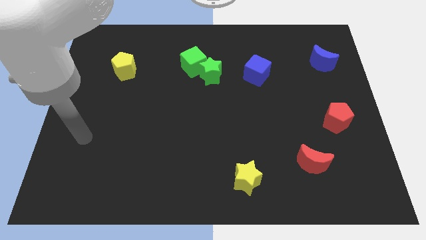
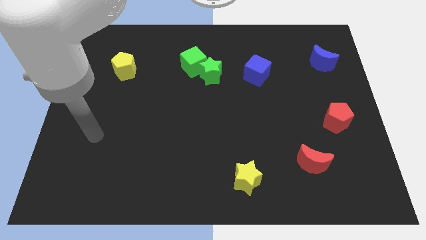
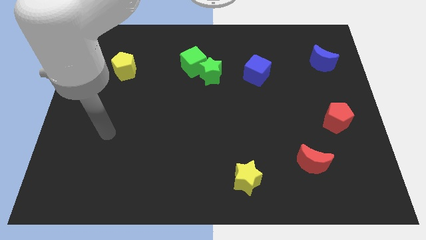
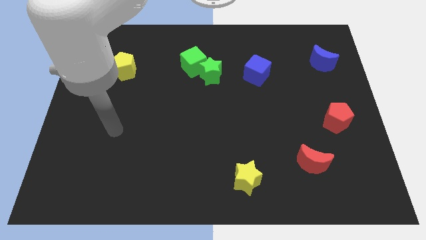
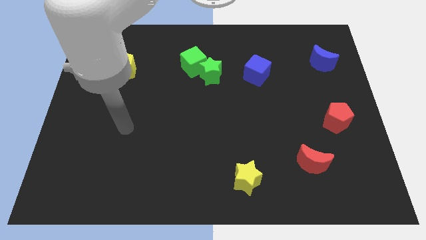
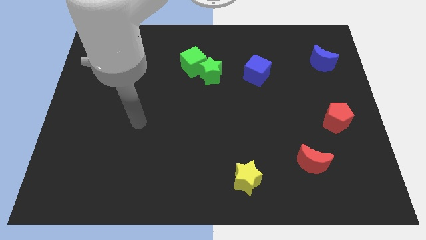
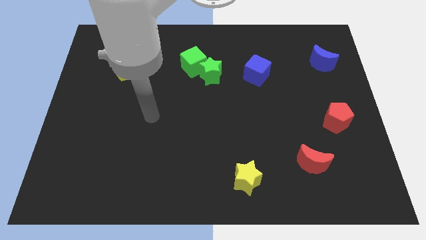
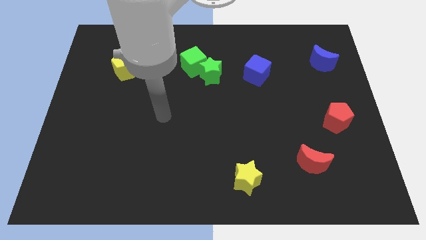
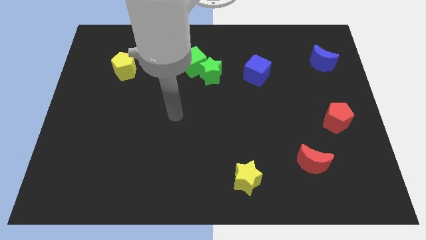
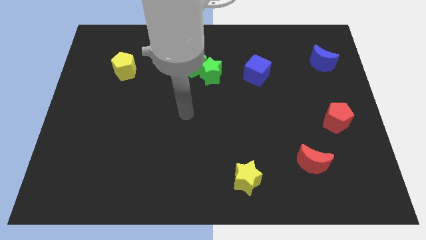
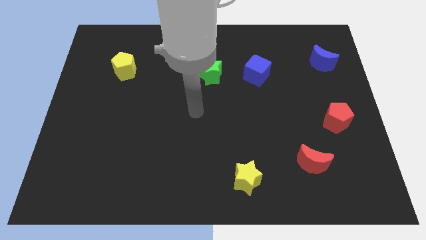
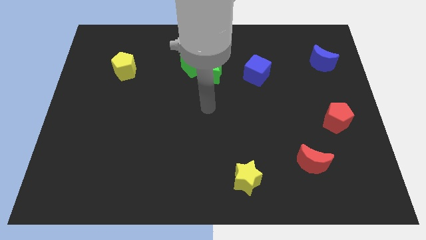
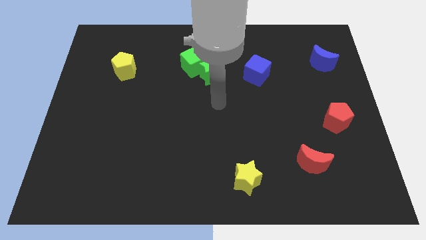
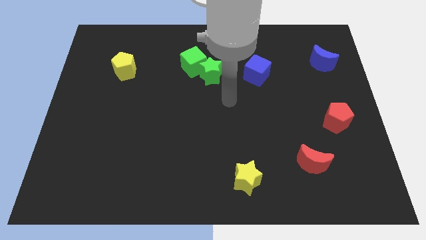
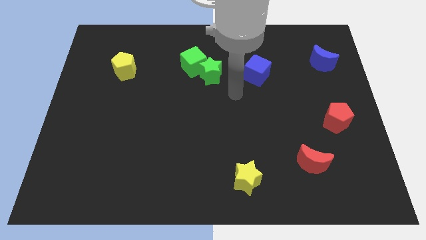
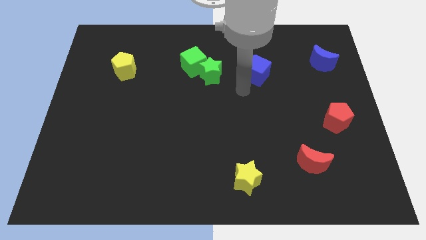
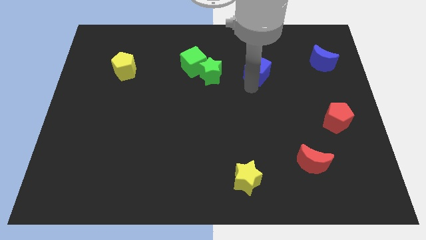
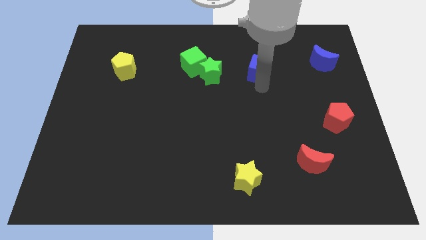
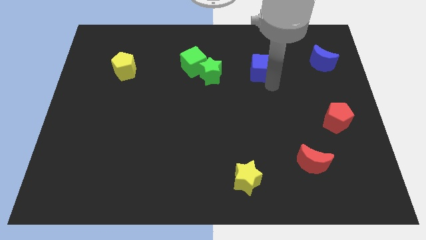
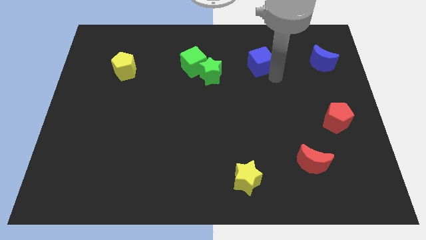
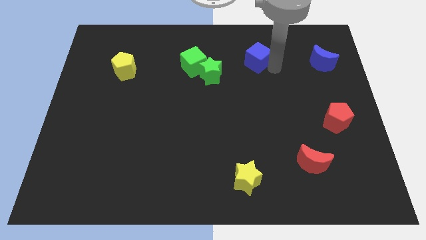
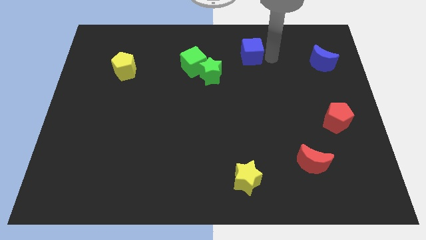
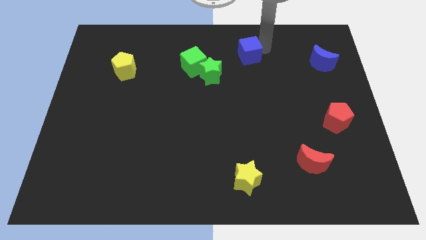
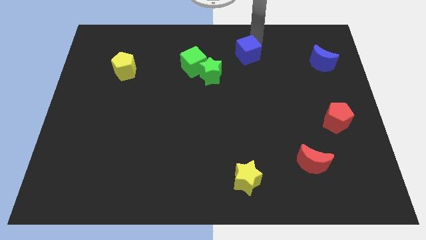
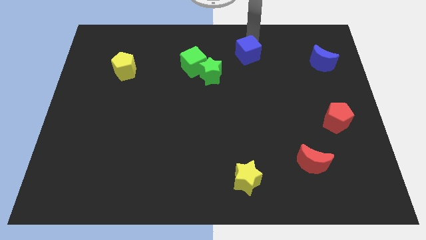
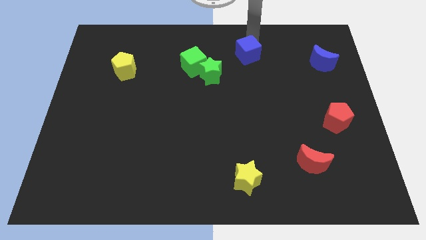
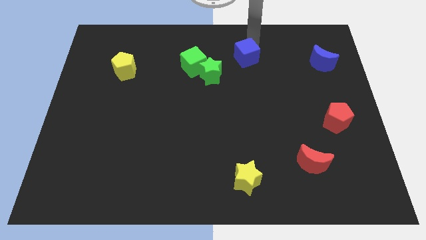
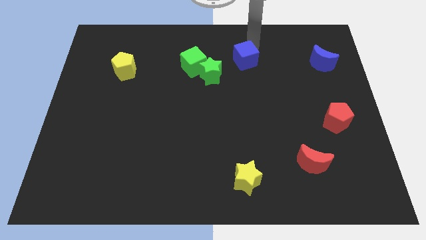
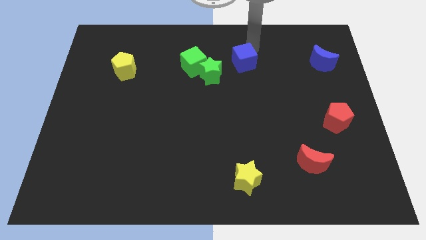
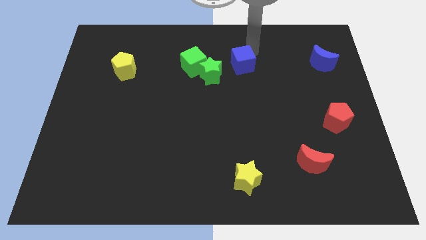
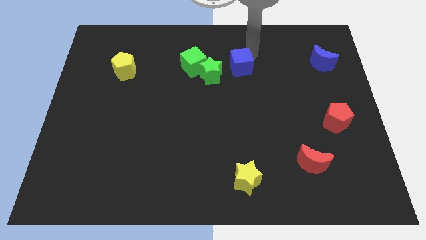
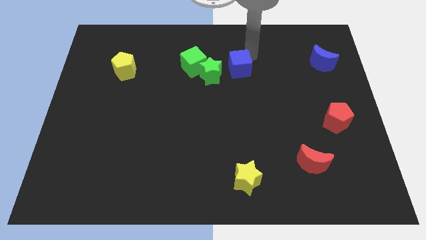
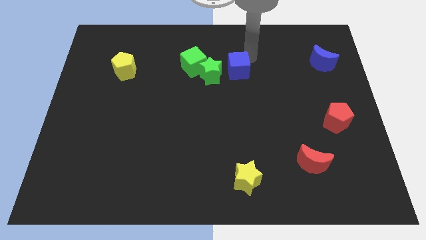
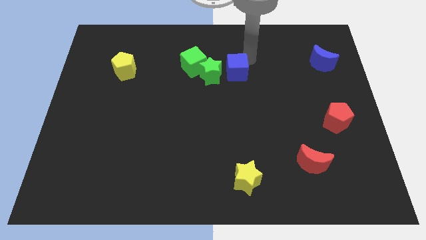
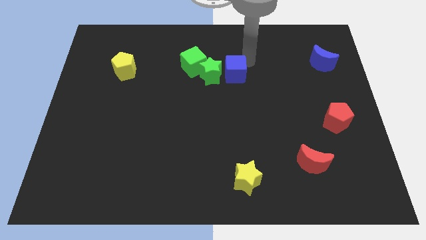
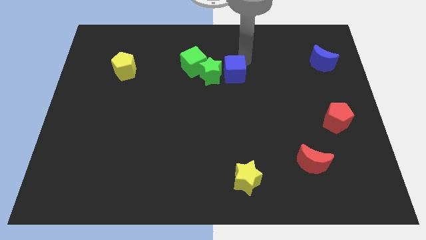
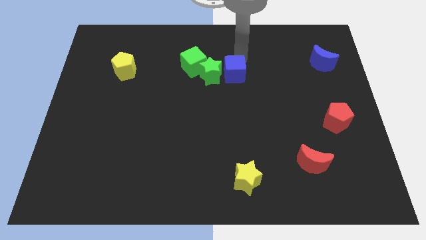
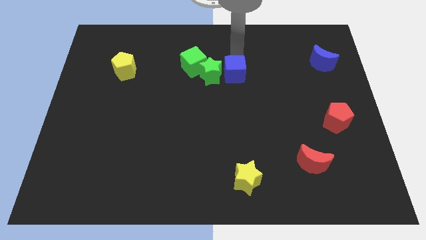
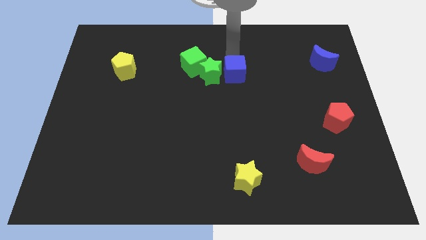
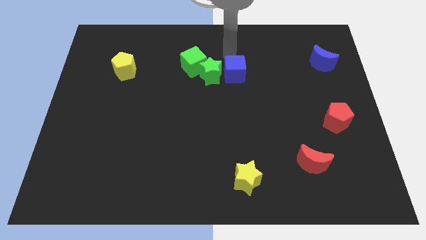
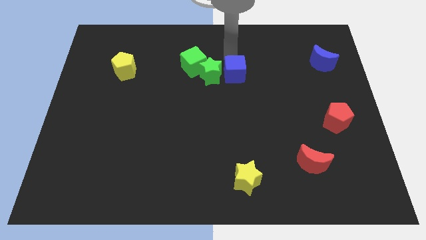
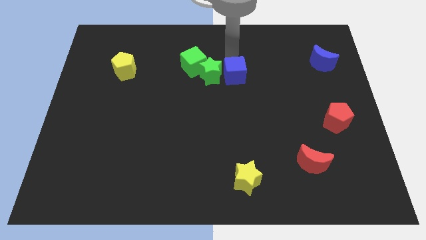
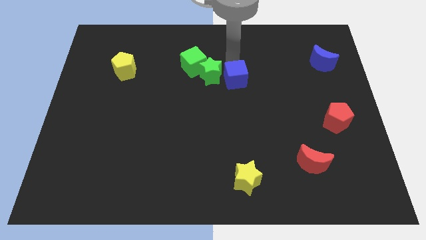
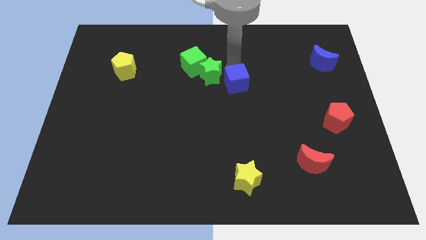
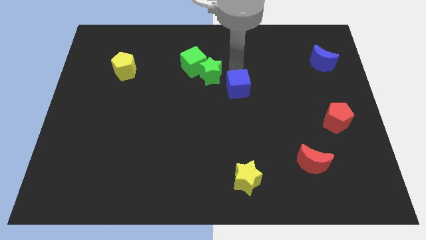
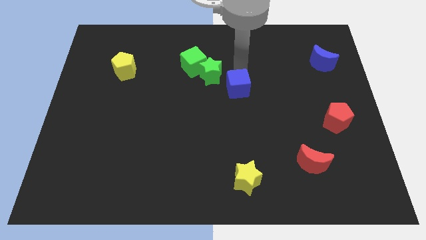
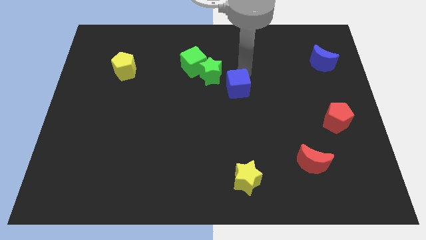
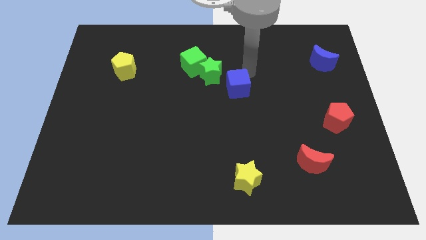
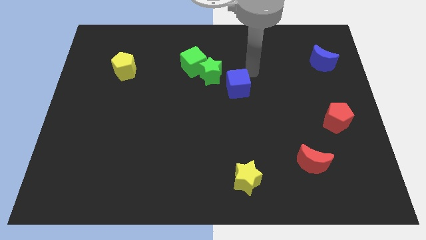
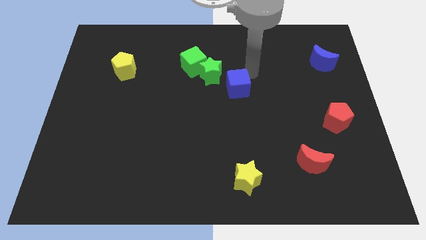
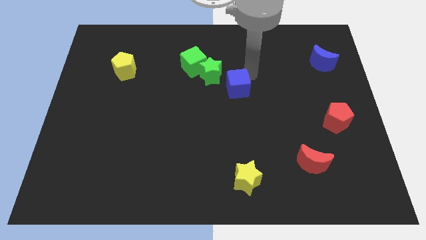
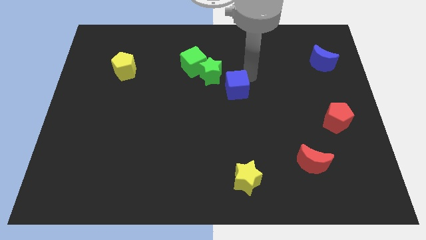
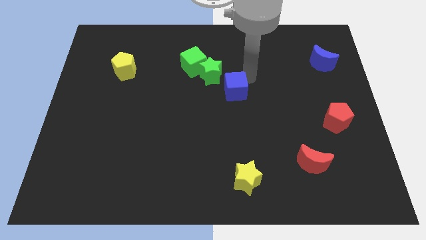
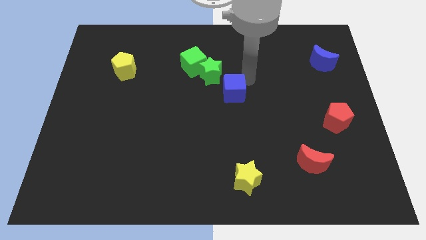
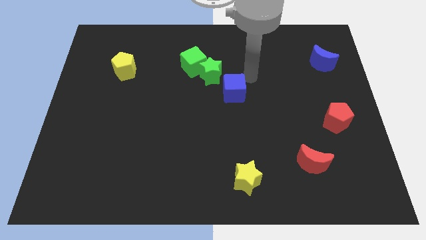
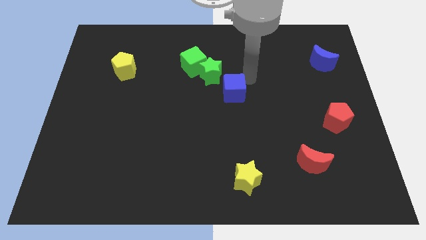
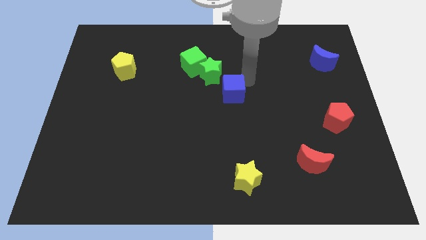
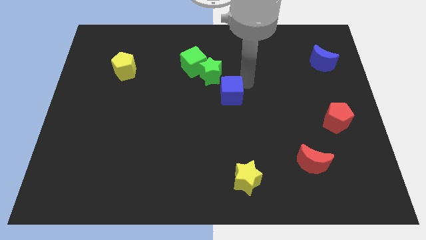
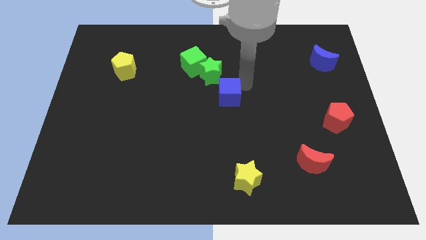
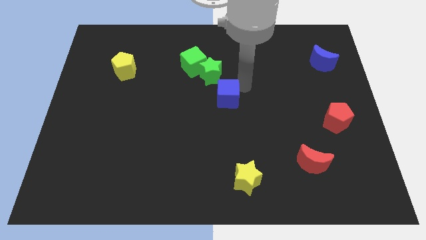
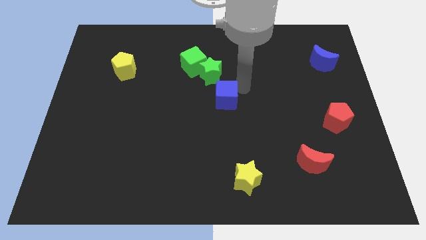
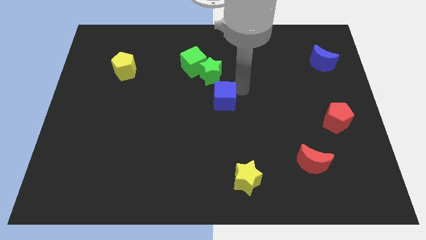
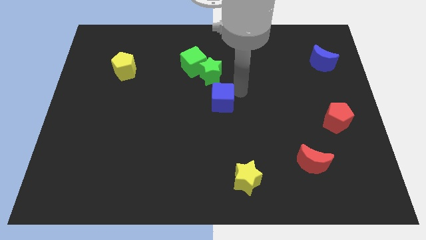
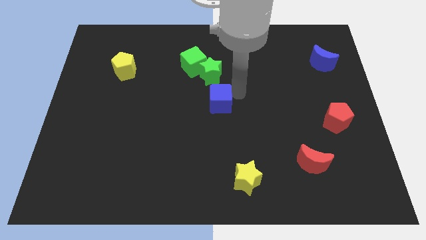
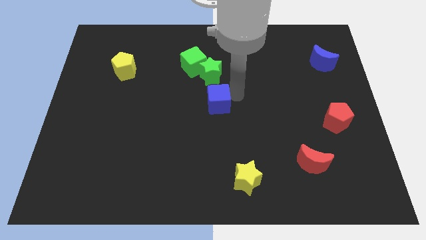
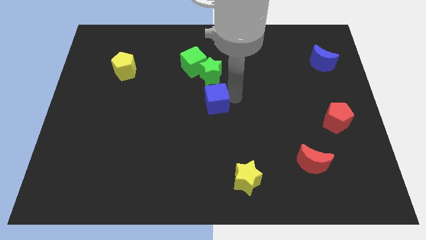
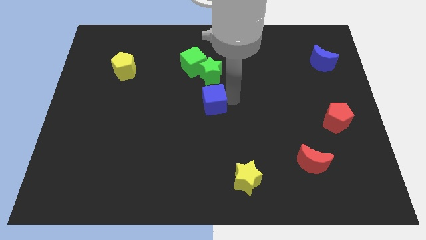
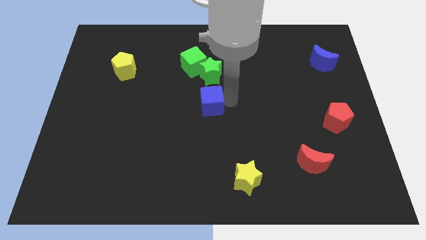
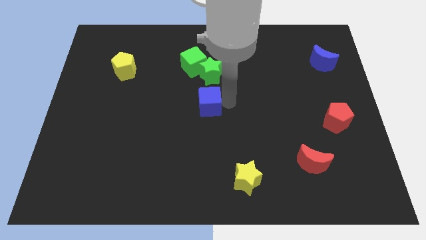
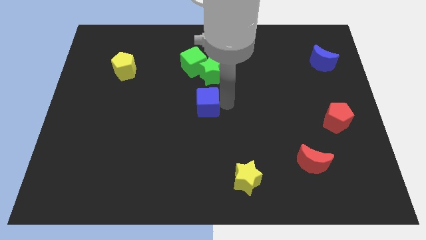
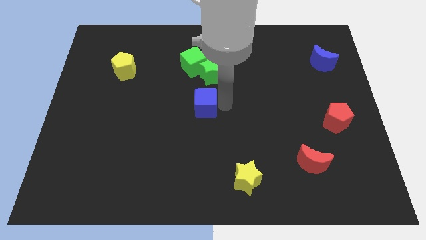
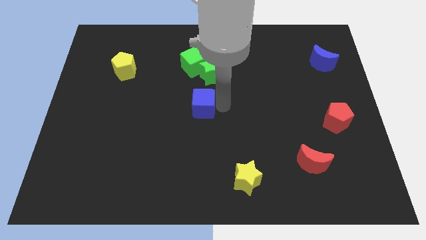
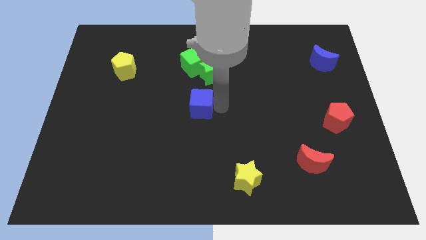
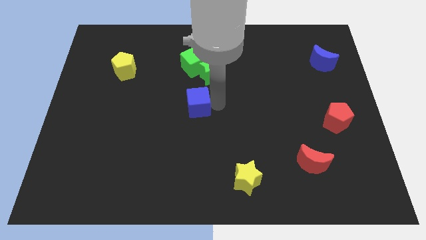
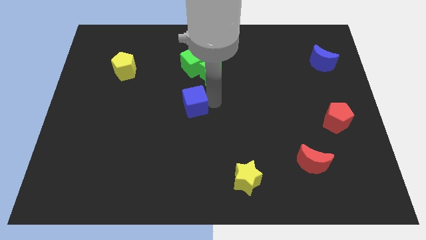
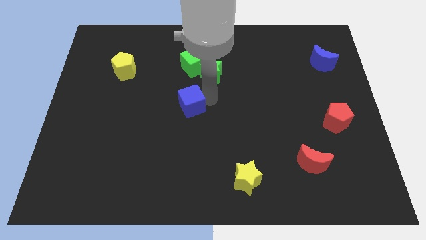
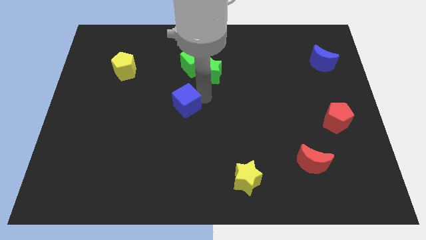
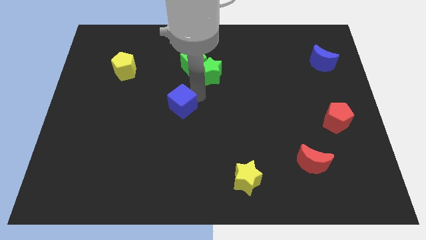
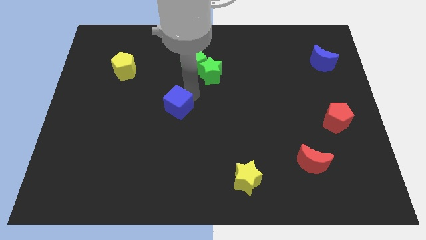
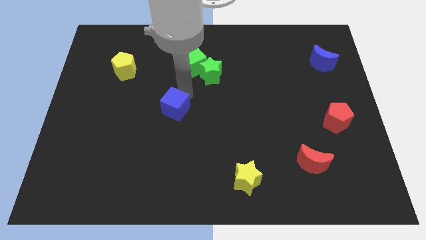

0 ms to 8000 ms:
push the blue cube down and to the left diagonally

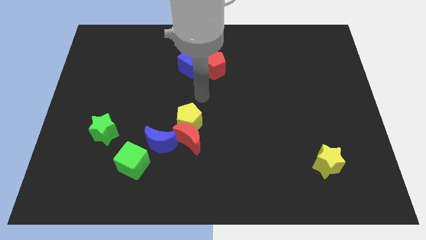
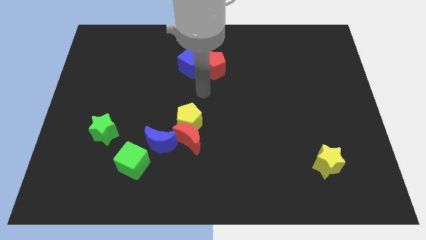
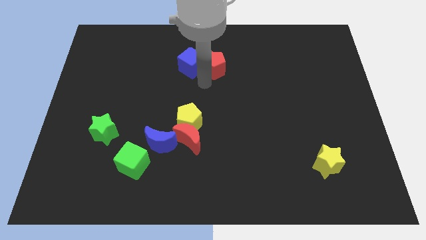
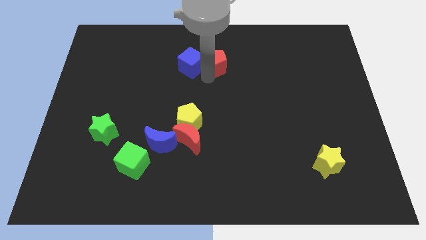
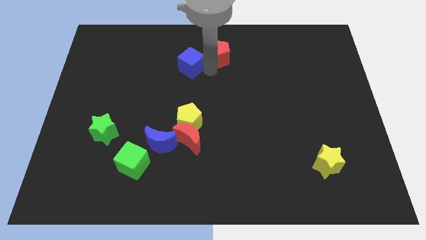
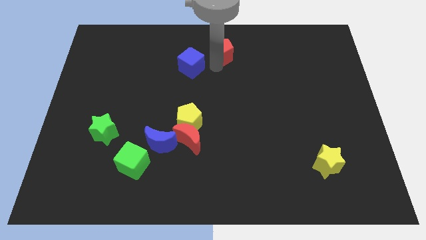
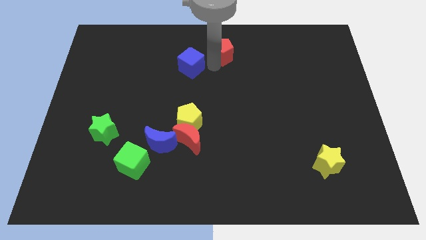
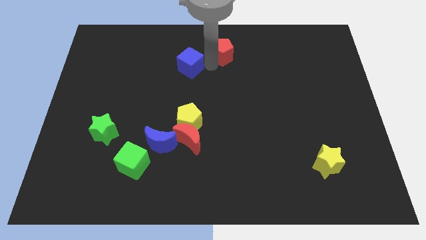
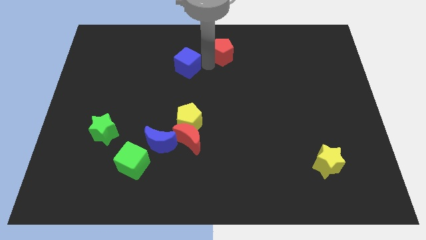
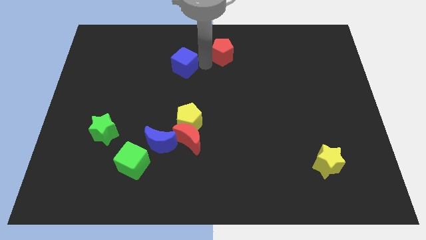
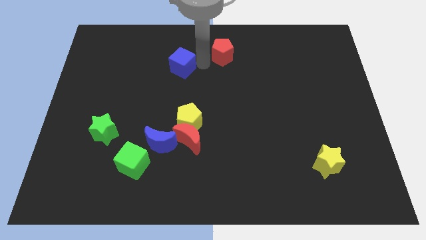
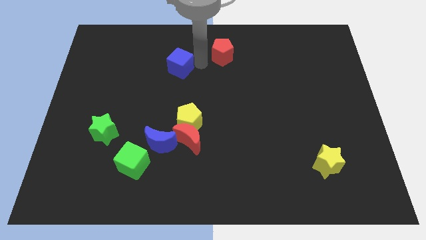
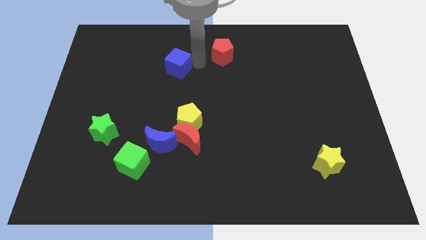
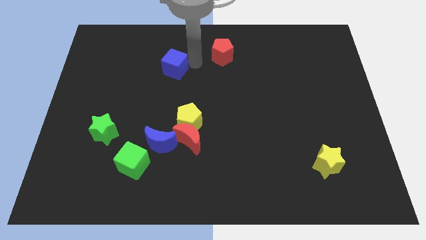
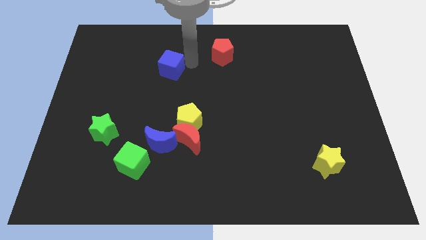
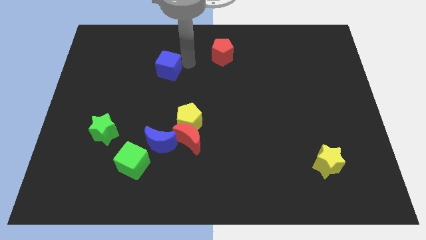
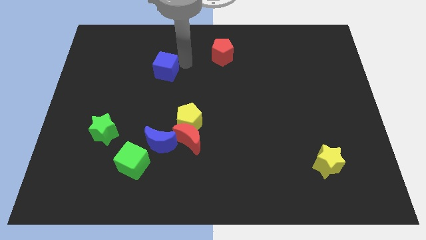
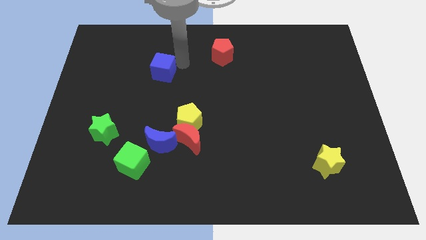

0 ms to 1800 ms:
slide the blue cube left slightly
